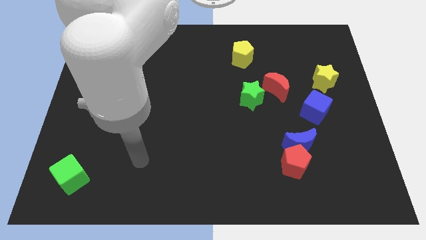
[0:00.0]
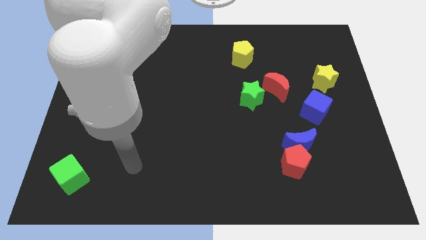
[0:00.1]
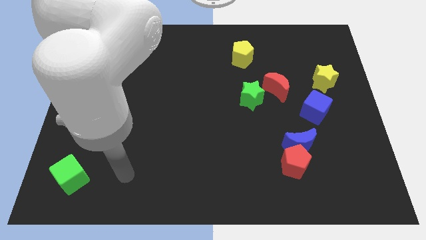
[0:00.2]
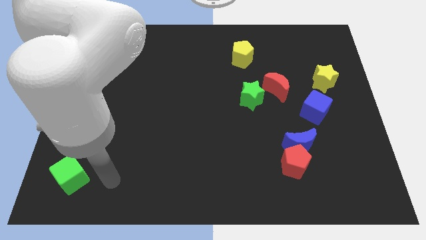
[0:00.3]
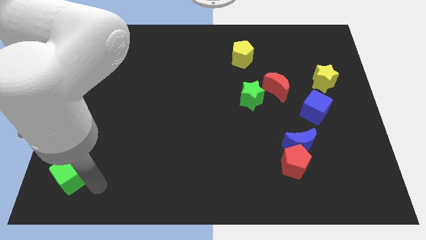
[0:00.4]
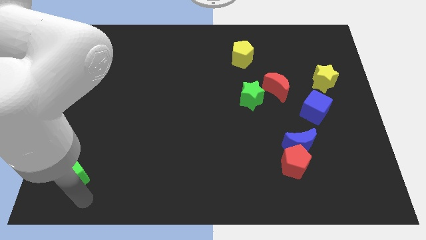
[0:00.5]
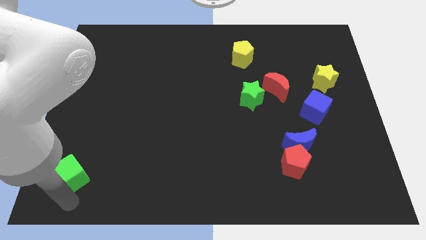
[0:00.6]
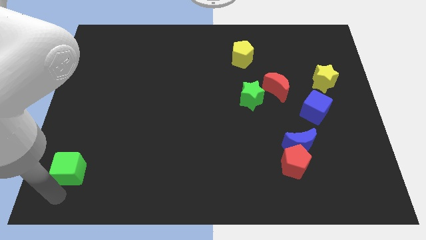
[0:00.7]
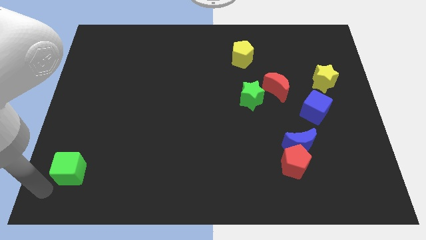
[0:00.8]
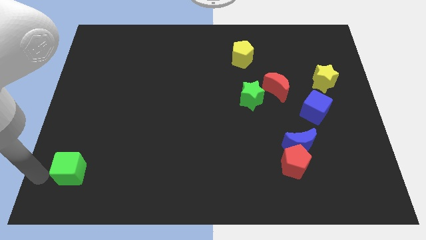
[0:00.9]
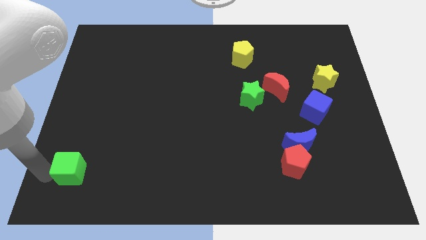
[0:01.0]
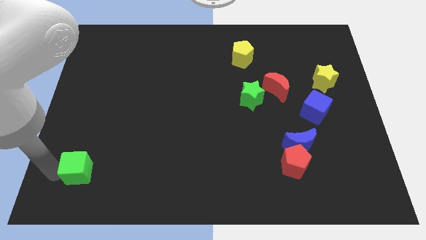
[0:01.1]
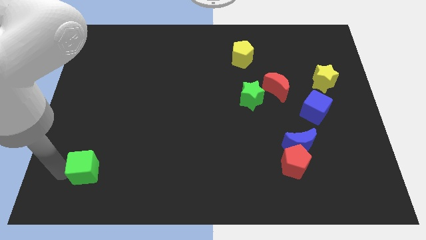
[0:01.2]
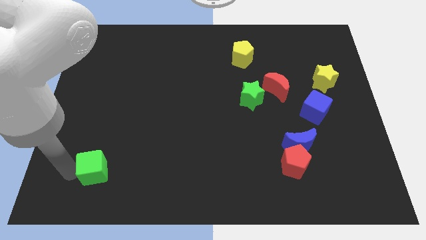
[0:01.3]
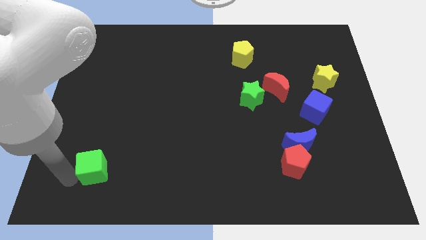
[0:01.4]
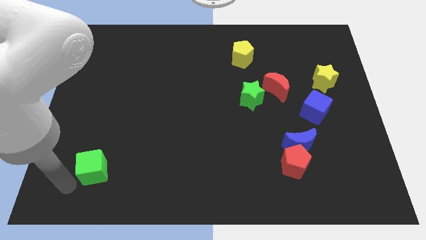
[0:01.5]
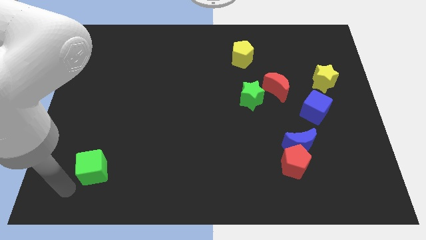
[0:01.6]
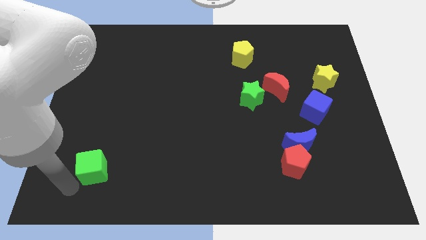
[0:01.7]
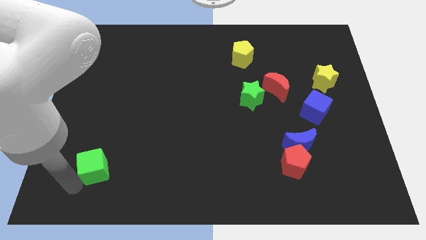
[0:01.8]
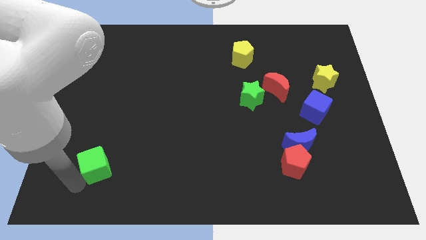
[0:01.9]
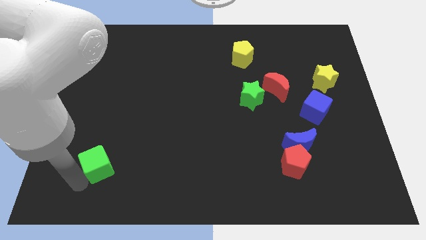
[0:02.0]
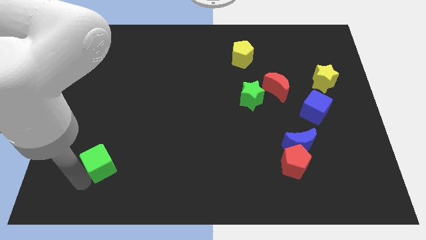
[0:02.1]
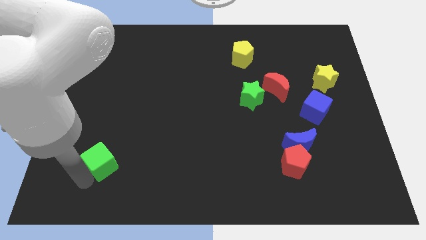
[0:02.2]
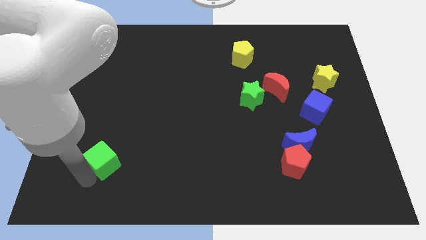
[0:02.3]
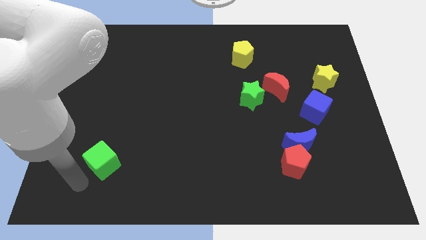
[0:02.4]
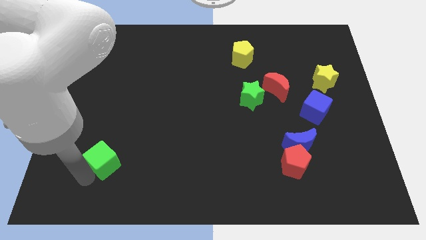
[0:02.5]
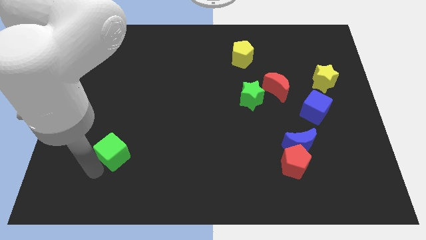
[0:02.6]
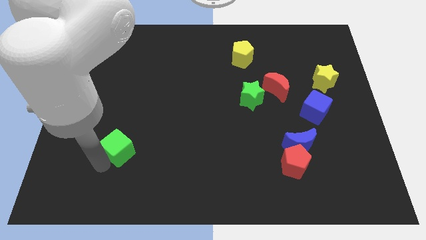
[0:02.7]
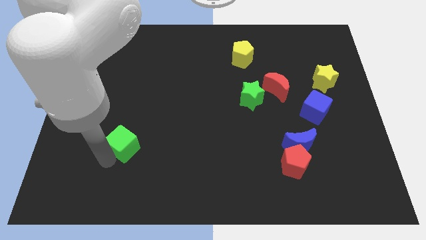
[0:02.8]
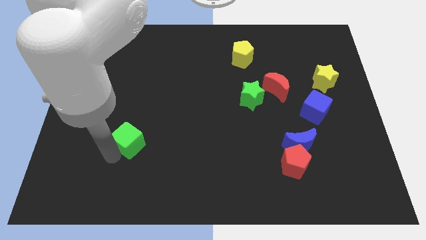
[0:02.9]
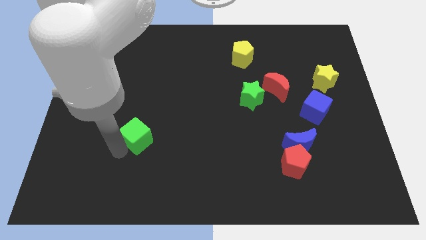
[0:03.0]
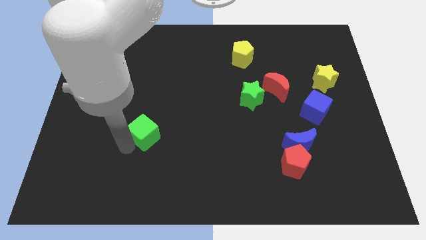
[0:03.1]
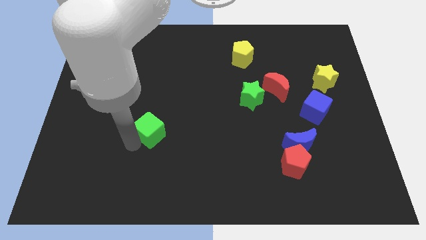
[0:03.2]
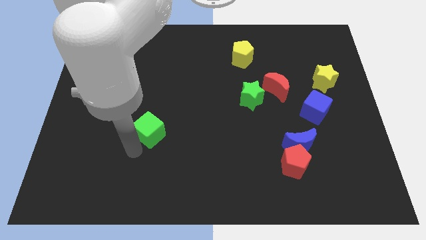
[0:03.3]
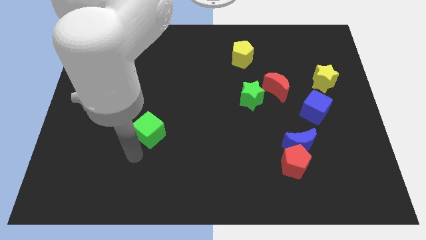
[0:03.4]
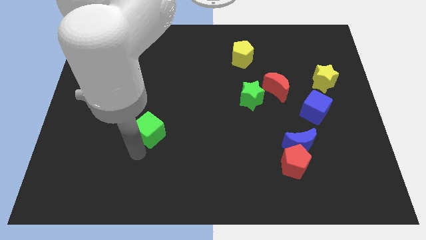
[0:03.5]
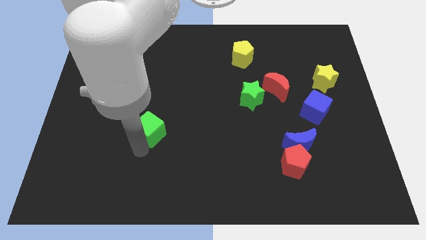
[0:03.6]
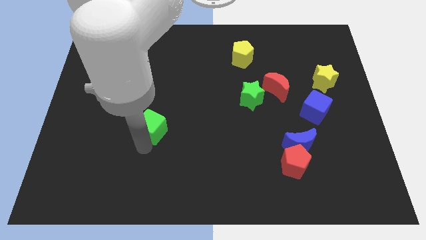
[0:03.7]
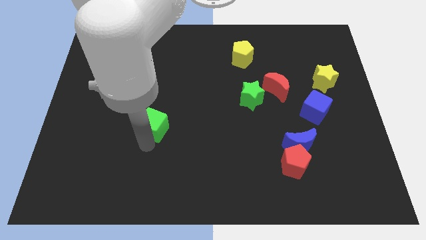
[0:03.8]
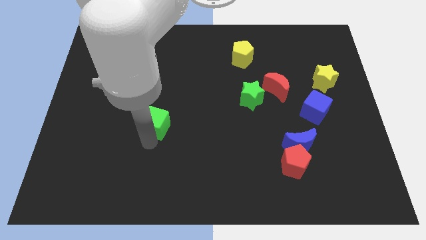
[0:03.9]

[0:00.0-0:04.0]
push the green cube upwards and right diagonally

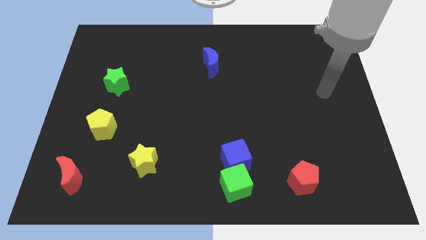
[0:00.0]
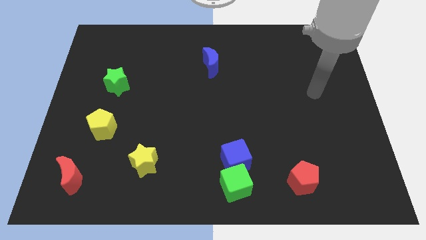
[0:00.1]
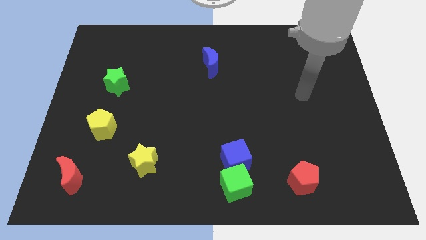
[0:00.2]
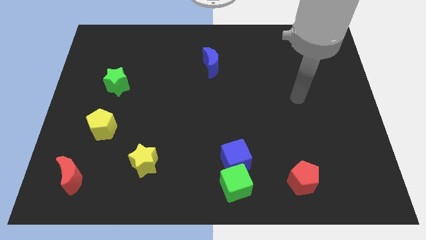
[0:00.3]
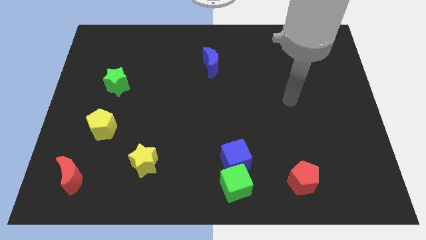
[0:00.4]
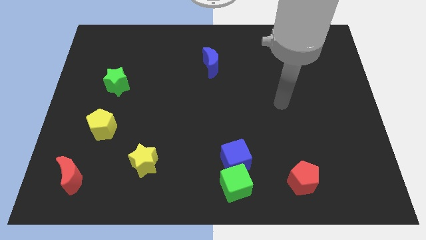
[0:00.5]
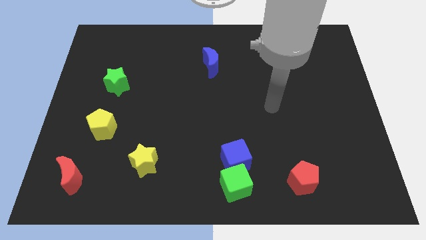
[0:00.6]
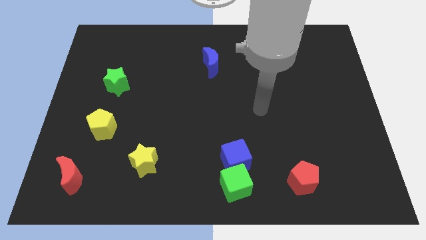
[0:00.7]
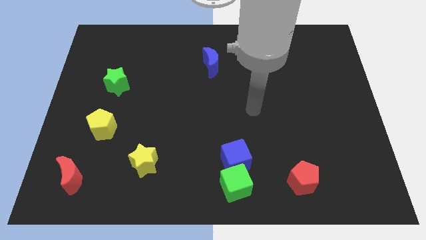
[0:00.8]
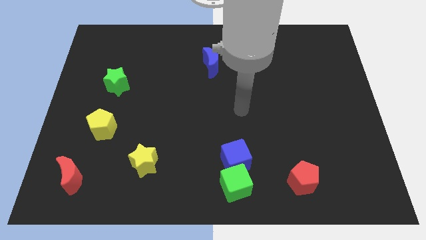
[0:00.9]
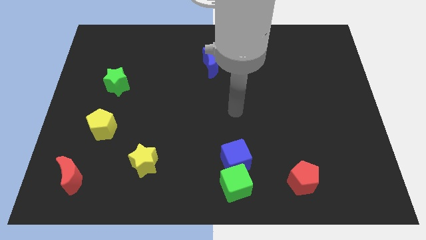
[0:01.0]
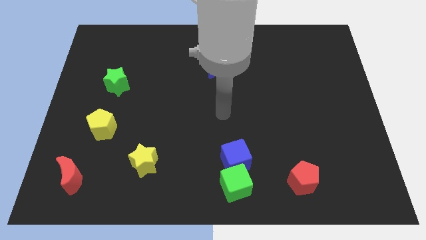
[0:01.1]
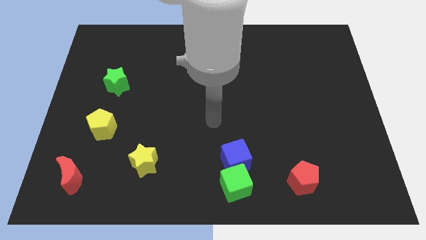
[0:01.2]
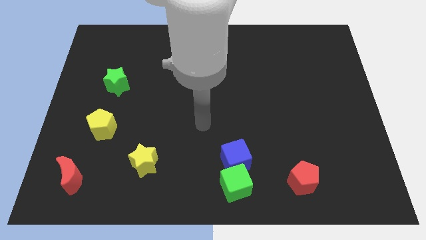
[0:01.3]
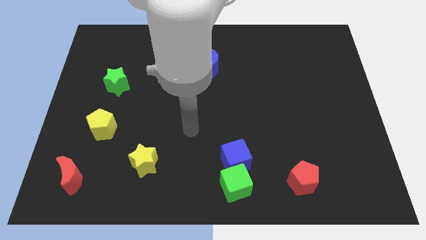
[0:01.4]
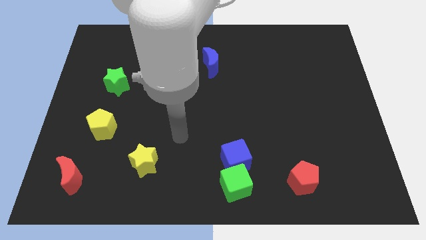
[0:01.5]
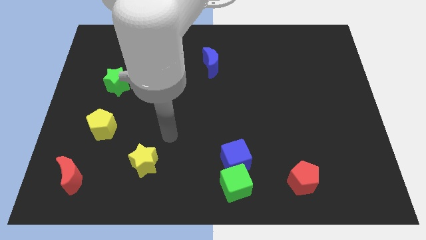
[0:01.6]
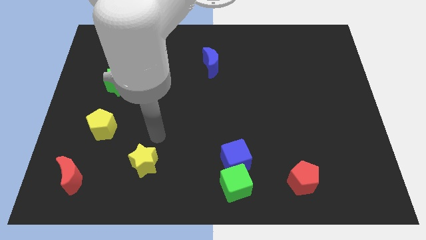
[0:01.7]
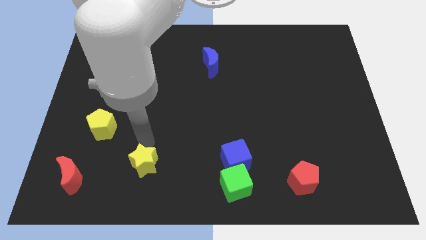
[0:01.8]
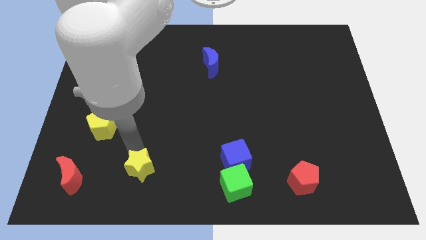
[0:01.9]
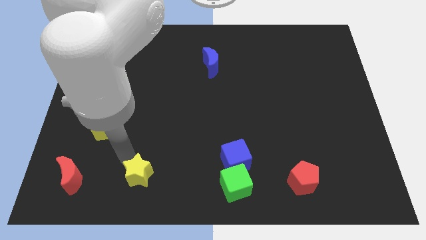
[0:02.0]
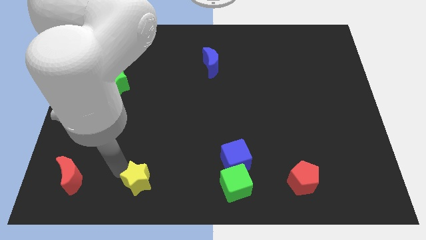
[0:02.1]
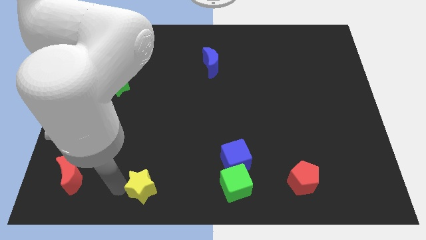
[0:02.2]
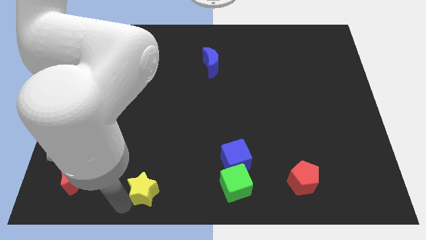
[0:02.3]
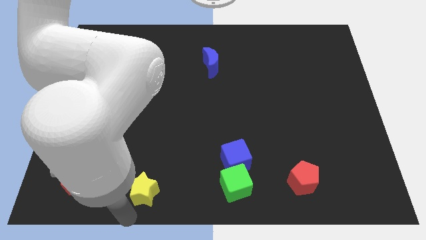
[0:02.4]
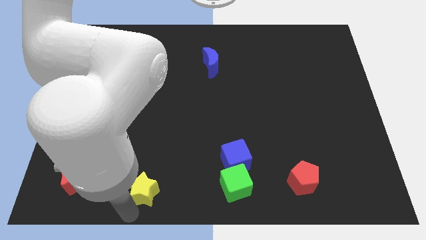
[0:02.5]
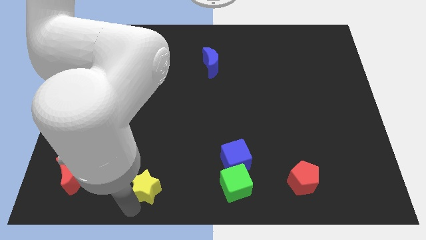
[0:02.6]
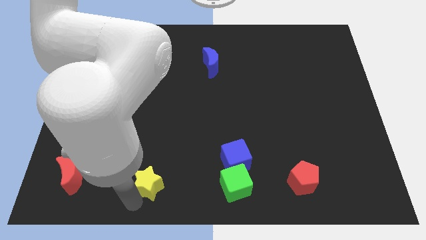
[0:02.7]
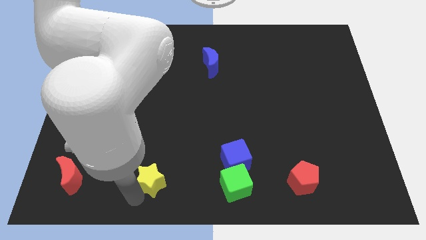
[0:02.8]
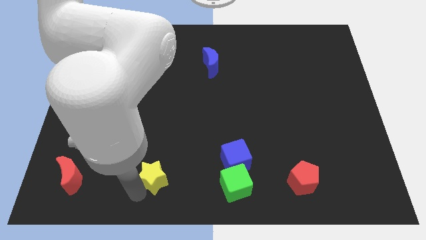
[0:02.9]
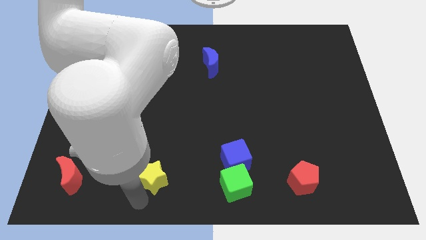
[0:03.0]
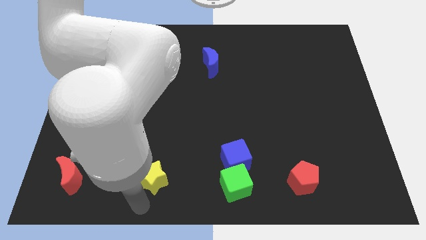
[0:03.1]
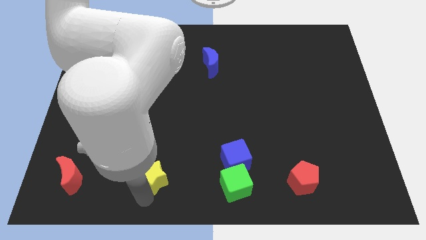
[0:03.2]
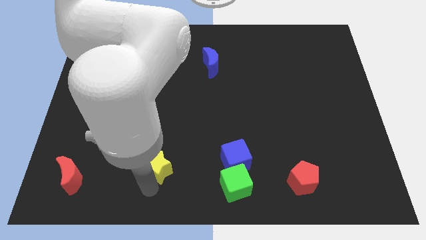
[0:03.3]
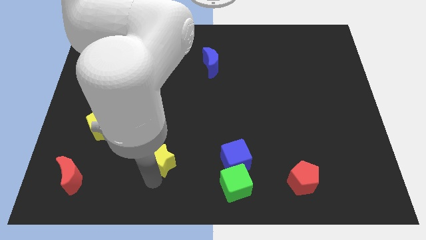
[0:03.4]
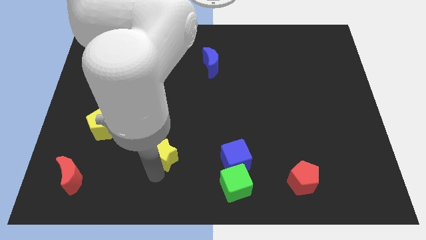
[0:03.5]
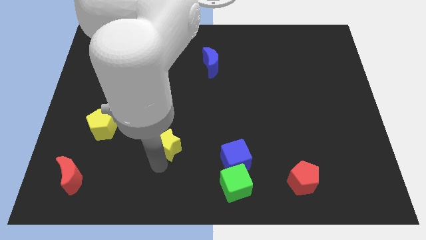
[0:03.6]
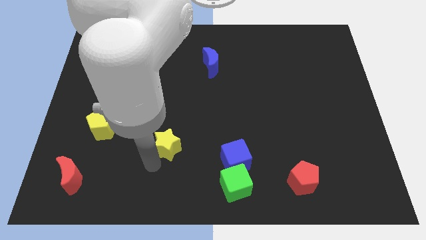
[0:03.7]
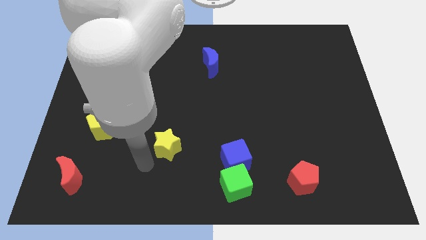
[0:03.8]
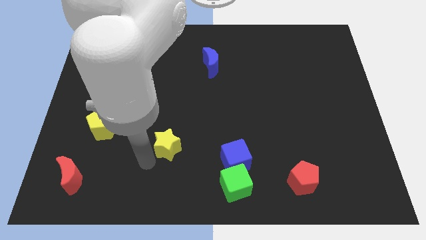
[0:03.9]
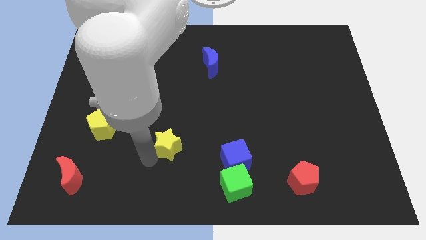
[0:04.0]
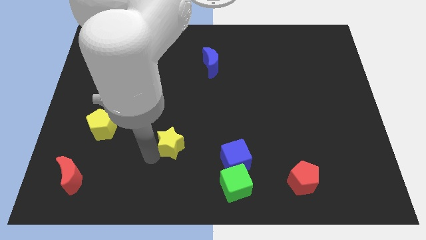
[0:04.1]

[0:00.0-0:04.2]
move the yellow star a little up and then right

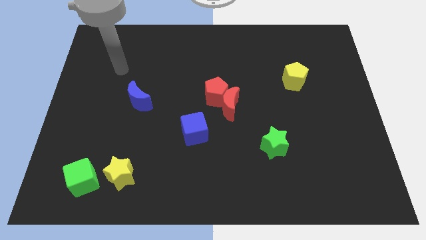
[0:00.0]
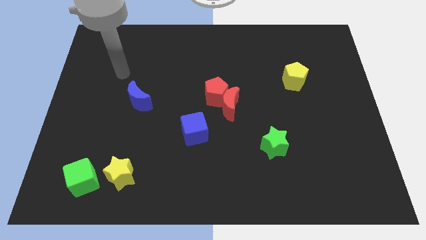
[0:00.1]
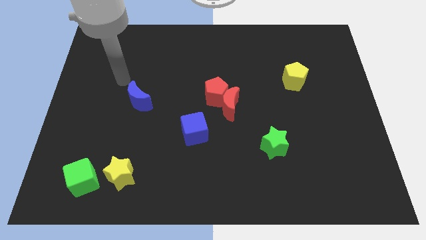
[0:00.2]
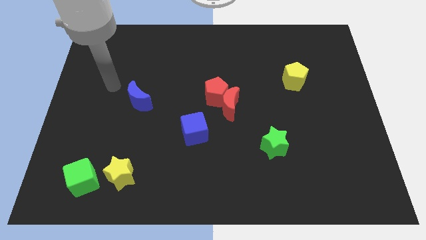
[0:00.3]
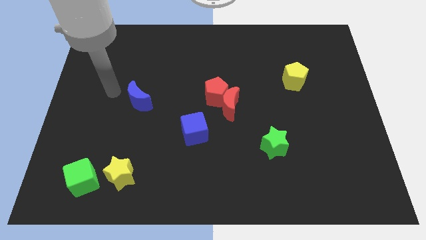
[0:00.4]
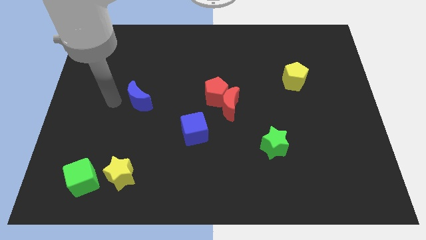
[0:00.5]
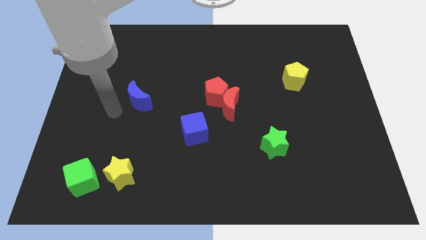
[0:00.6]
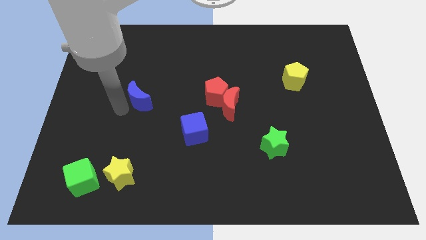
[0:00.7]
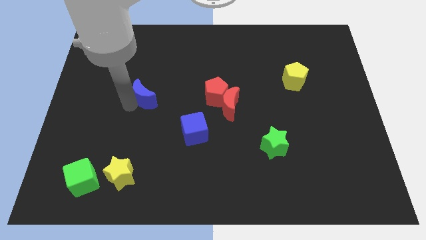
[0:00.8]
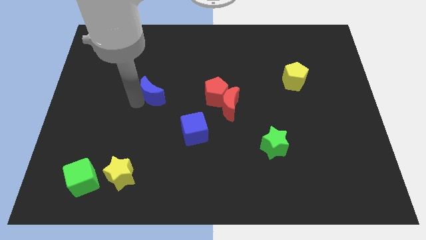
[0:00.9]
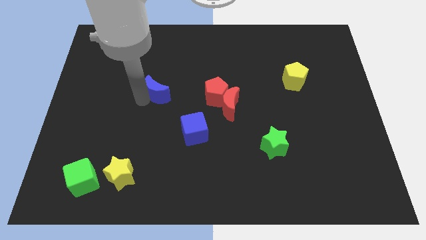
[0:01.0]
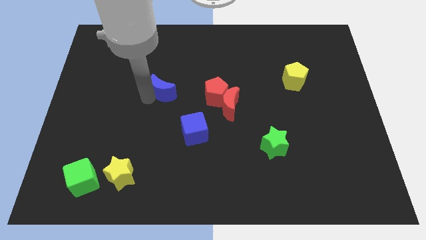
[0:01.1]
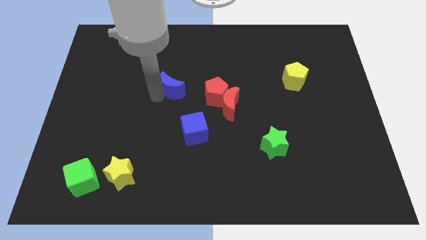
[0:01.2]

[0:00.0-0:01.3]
slightly push the blue moon diagonally up and to the right
